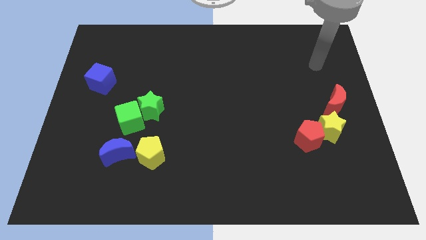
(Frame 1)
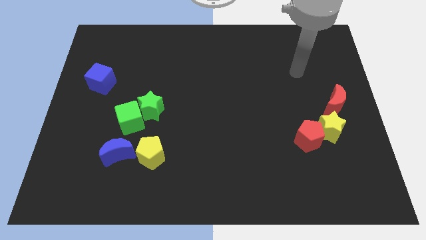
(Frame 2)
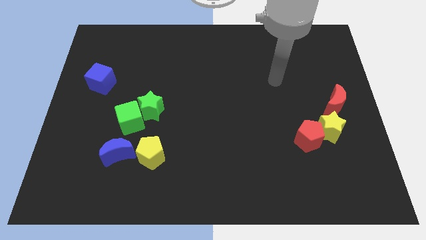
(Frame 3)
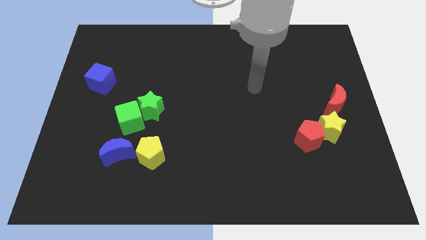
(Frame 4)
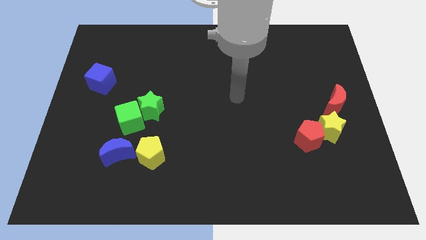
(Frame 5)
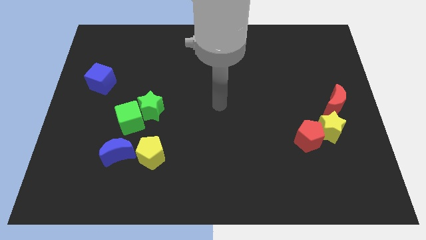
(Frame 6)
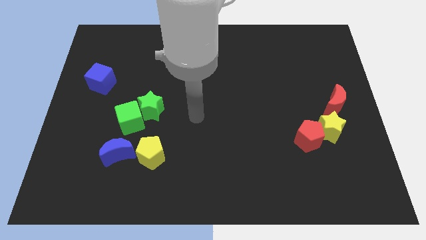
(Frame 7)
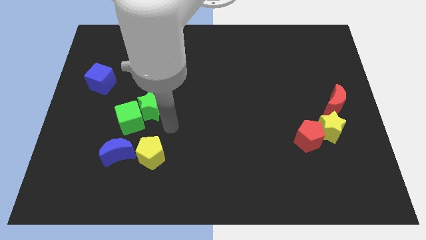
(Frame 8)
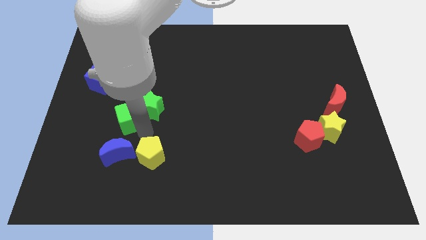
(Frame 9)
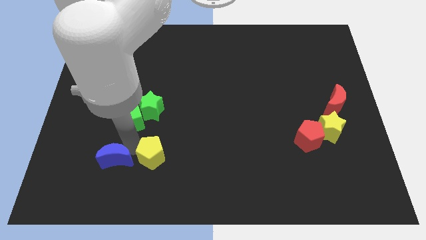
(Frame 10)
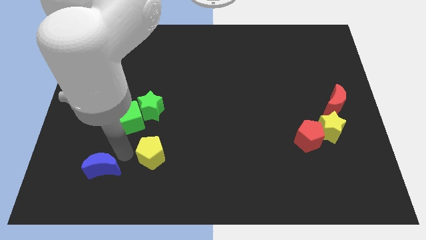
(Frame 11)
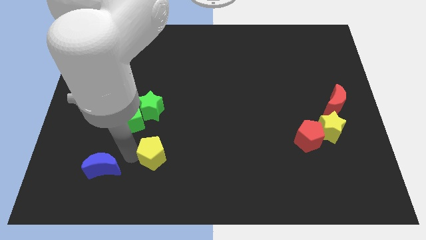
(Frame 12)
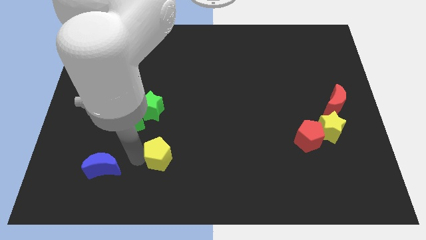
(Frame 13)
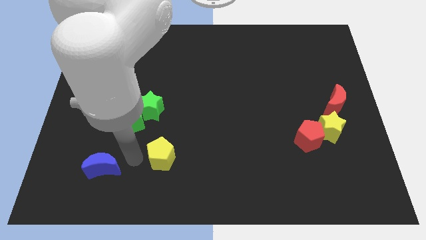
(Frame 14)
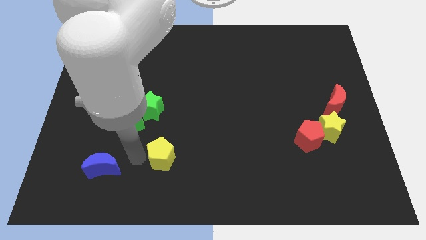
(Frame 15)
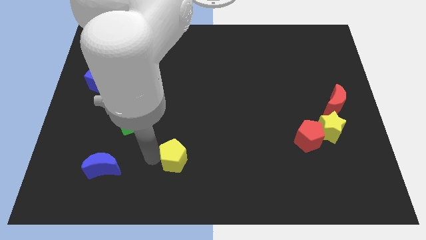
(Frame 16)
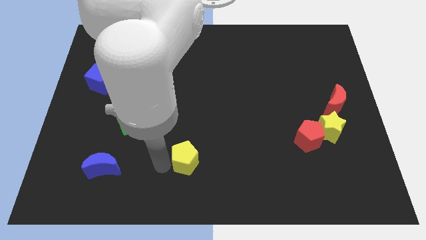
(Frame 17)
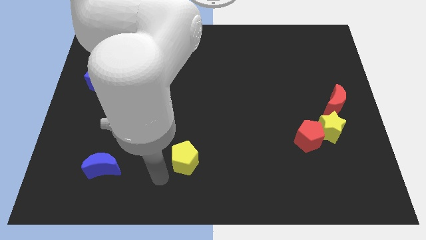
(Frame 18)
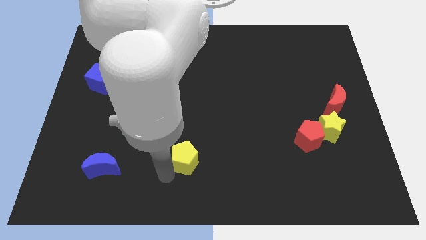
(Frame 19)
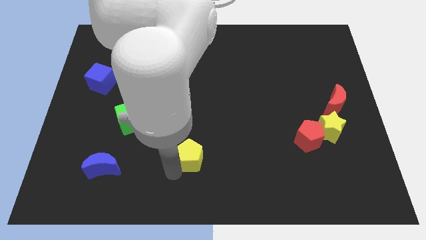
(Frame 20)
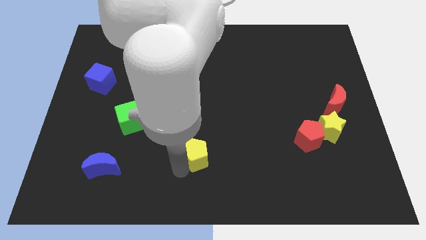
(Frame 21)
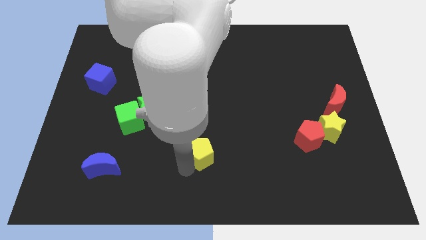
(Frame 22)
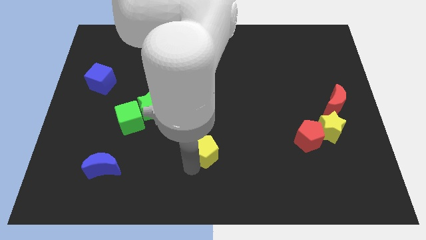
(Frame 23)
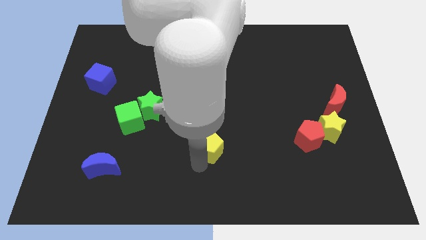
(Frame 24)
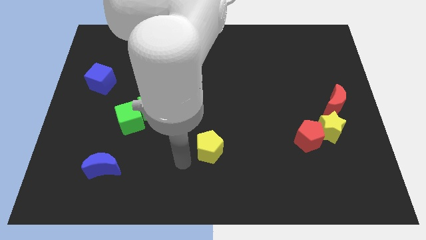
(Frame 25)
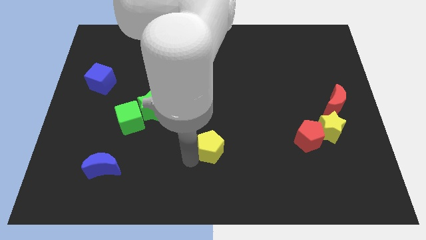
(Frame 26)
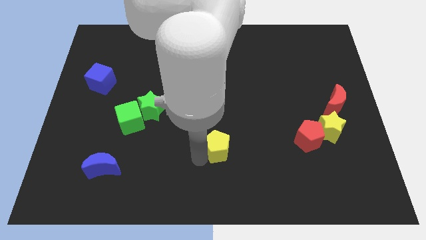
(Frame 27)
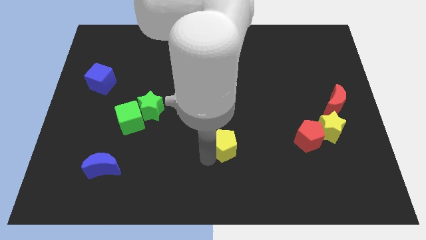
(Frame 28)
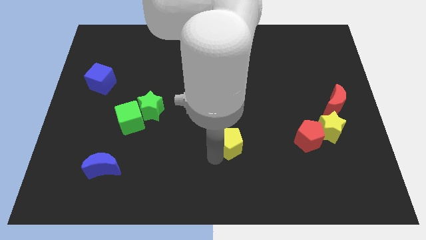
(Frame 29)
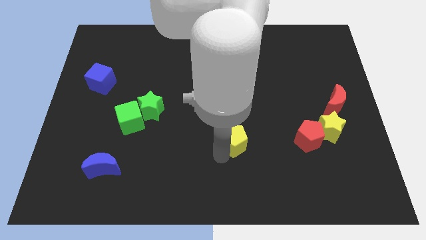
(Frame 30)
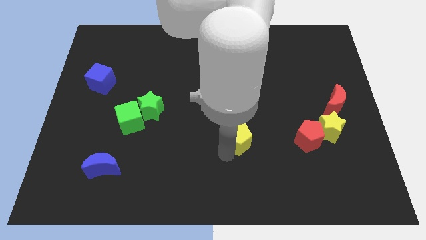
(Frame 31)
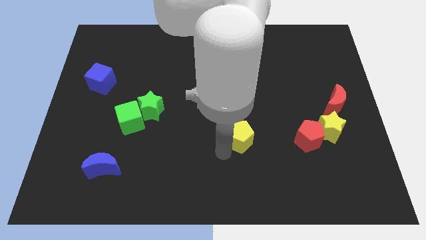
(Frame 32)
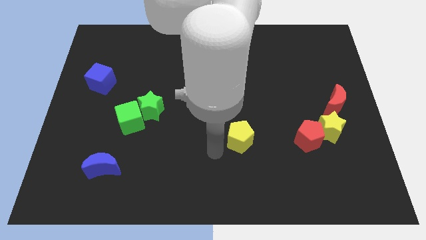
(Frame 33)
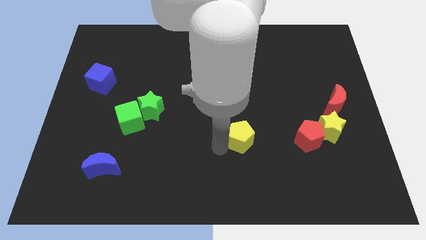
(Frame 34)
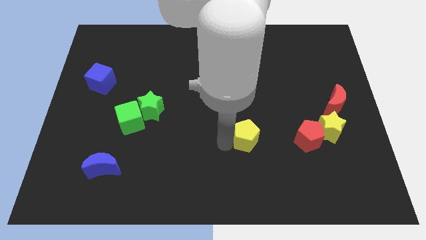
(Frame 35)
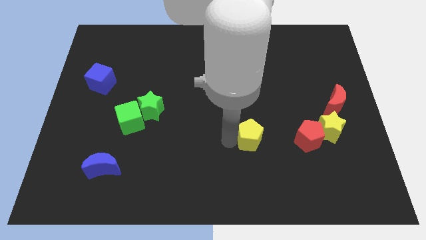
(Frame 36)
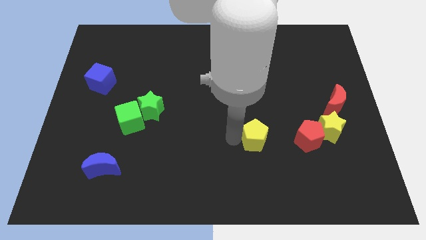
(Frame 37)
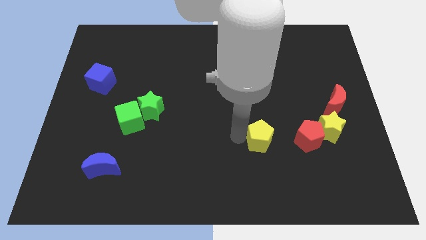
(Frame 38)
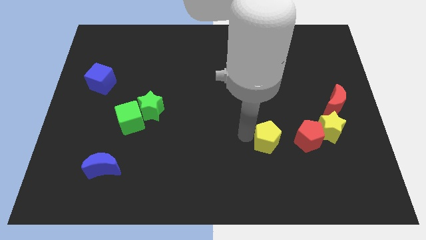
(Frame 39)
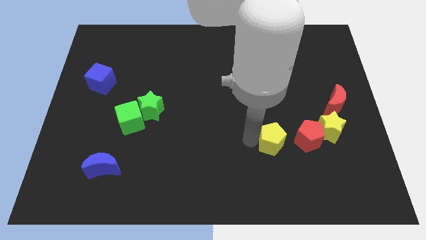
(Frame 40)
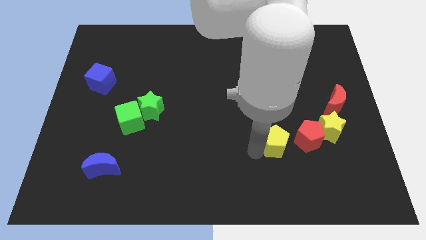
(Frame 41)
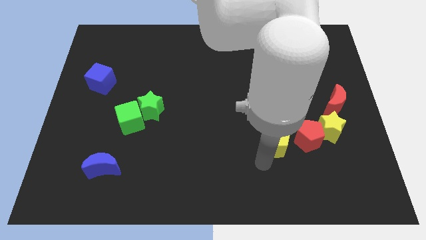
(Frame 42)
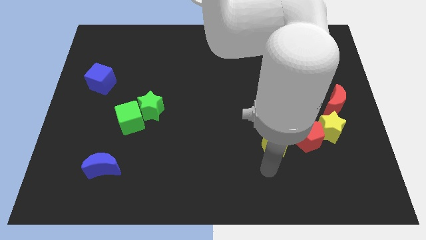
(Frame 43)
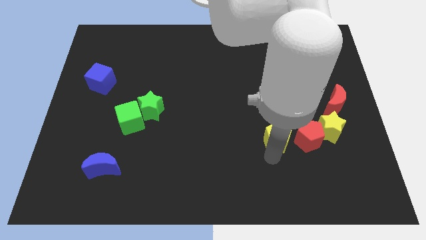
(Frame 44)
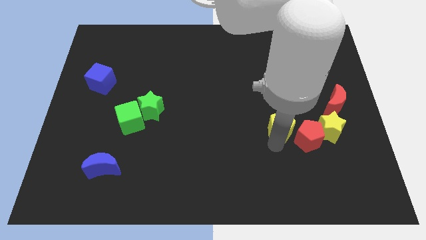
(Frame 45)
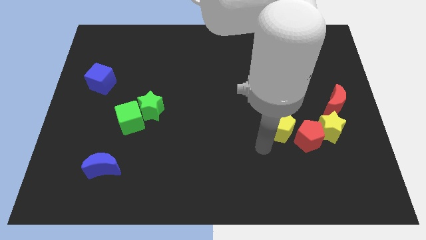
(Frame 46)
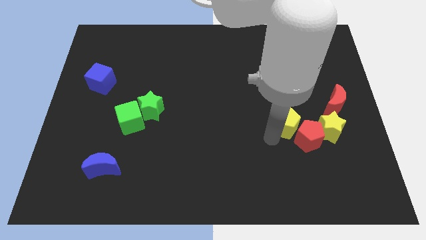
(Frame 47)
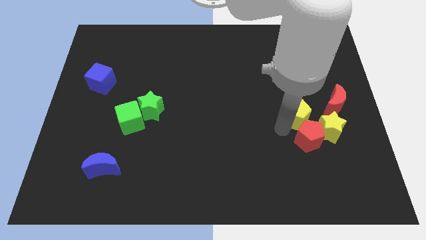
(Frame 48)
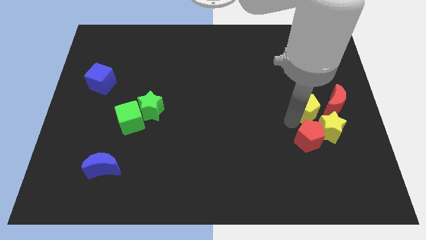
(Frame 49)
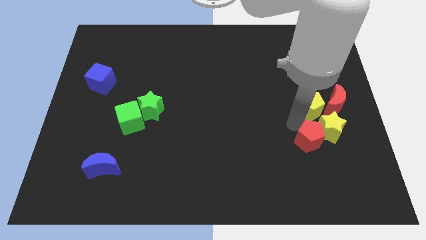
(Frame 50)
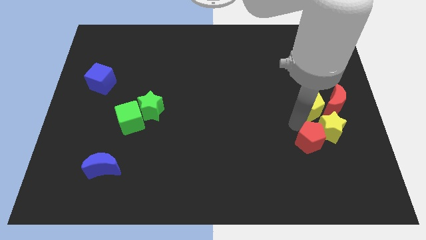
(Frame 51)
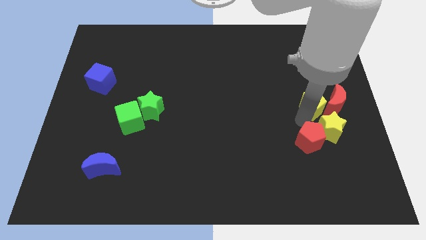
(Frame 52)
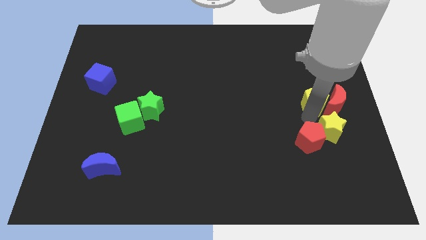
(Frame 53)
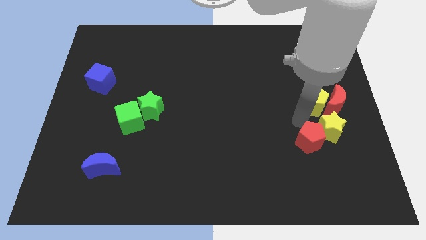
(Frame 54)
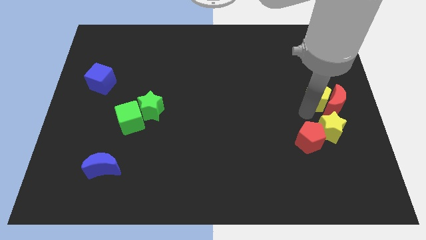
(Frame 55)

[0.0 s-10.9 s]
move the yellow pentagon to the right side
